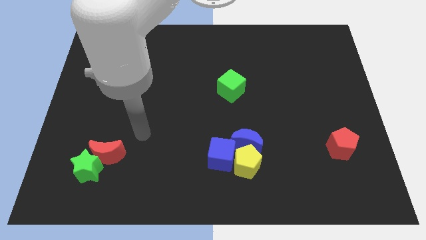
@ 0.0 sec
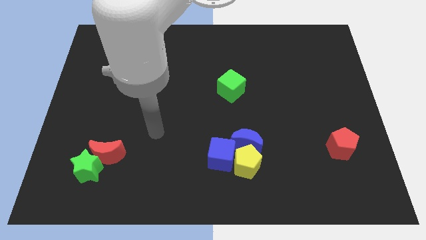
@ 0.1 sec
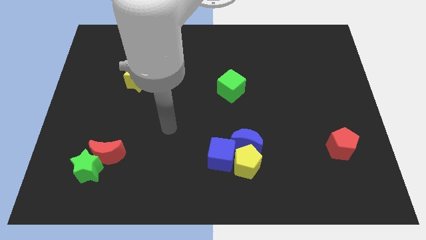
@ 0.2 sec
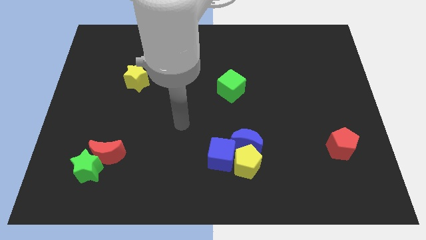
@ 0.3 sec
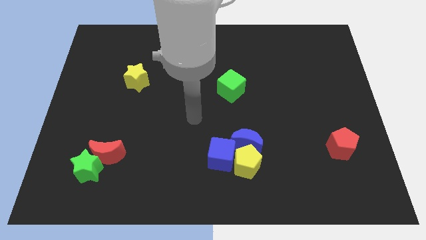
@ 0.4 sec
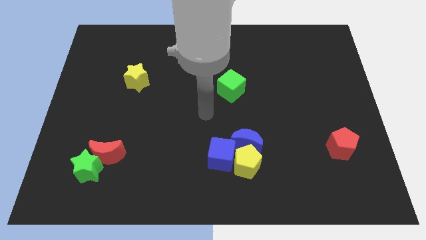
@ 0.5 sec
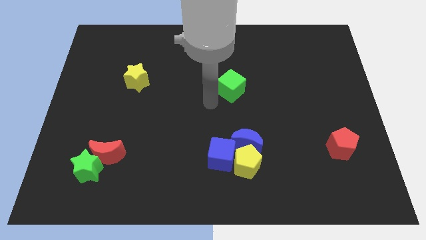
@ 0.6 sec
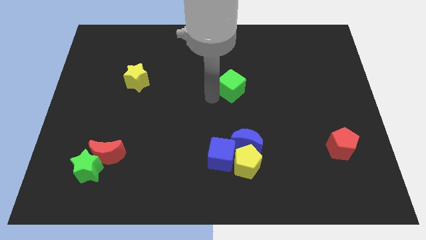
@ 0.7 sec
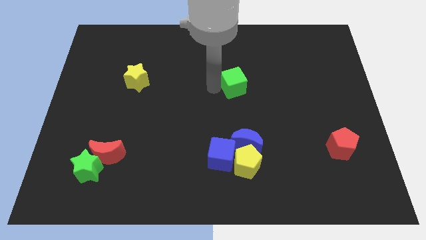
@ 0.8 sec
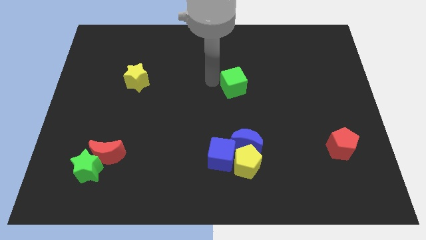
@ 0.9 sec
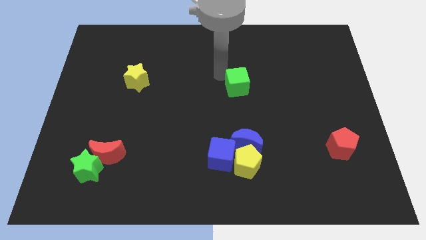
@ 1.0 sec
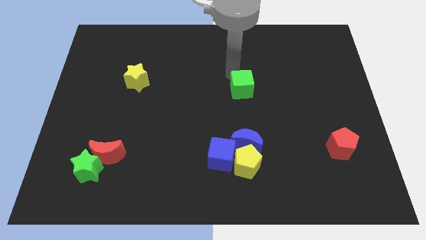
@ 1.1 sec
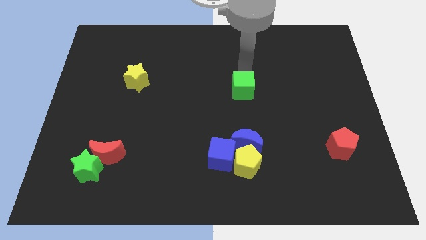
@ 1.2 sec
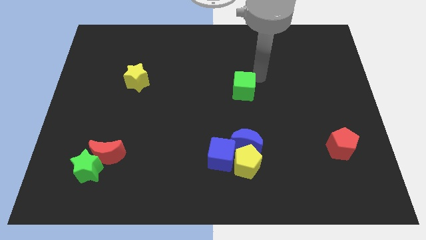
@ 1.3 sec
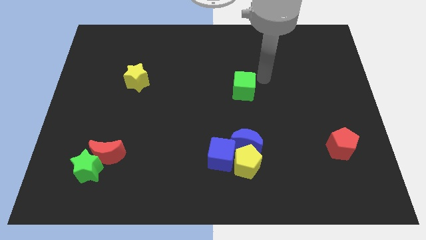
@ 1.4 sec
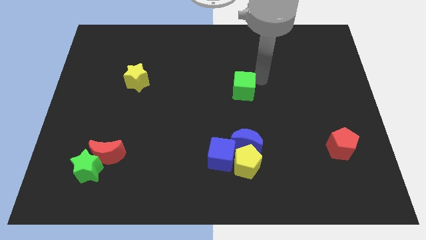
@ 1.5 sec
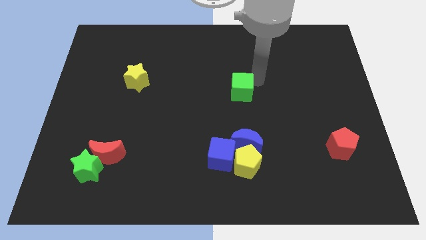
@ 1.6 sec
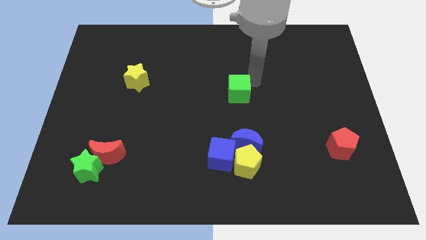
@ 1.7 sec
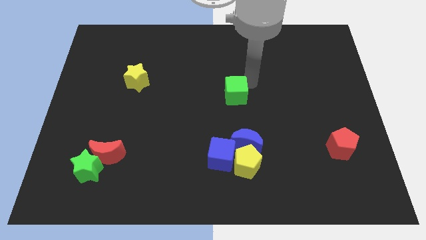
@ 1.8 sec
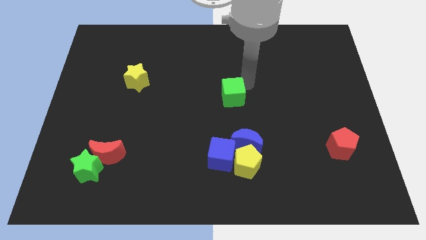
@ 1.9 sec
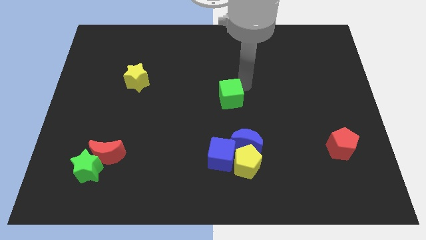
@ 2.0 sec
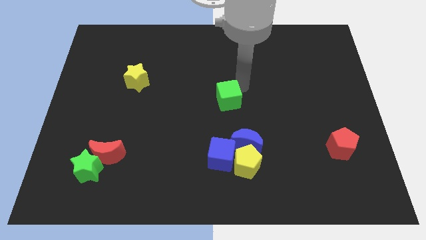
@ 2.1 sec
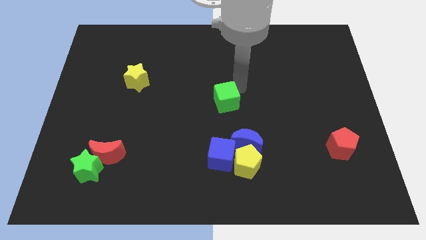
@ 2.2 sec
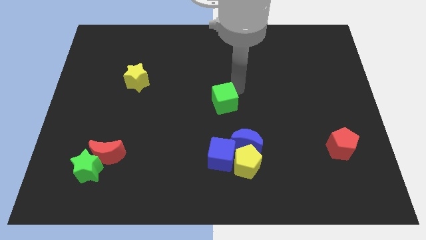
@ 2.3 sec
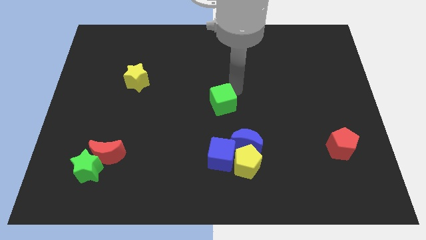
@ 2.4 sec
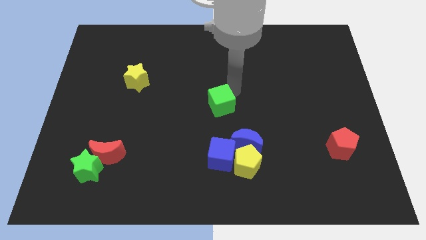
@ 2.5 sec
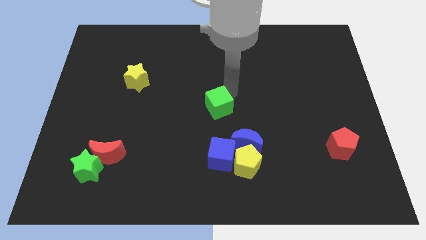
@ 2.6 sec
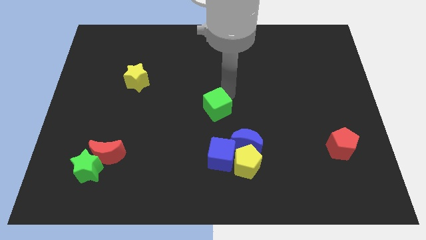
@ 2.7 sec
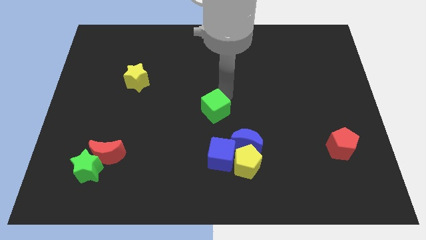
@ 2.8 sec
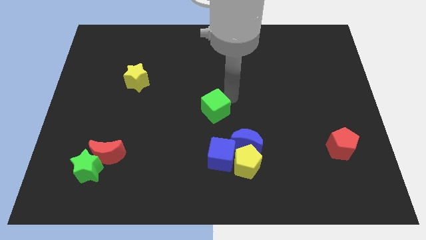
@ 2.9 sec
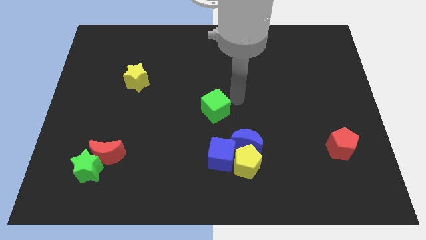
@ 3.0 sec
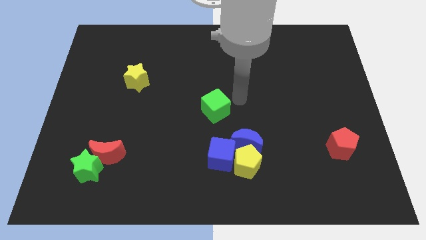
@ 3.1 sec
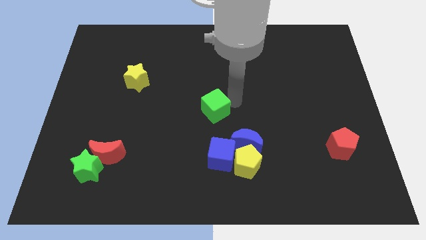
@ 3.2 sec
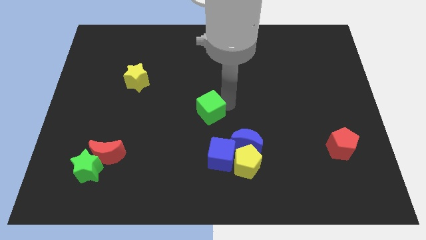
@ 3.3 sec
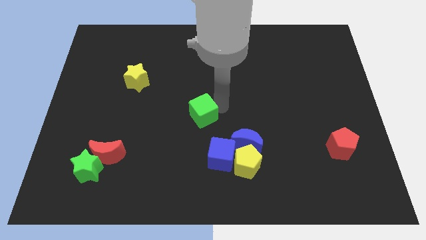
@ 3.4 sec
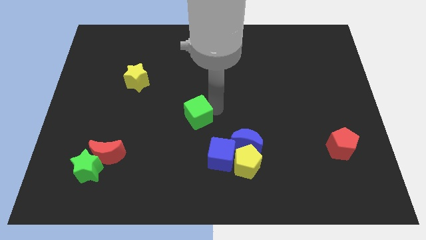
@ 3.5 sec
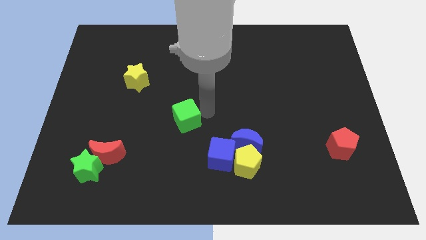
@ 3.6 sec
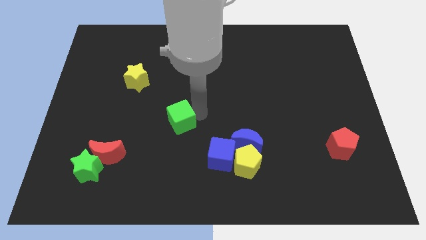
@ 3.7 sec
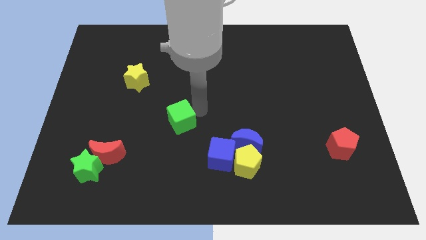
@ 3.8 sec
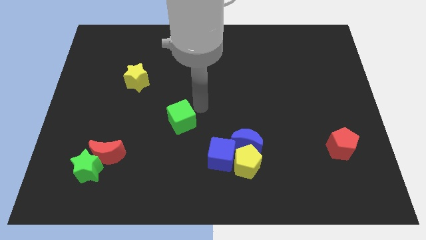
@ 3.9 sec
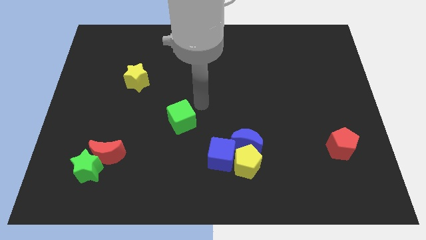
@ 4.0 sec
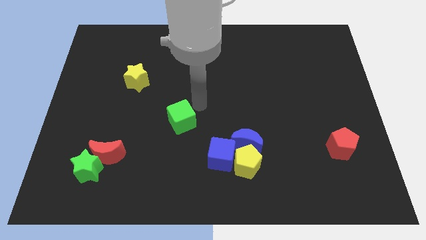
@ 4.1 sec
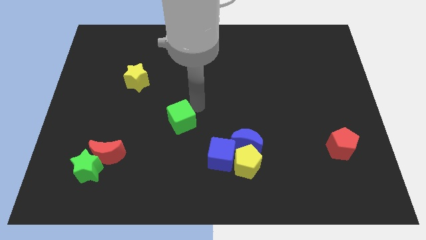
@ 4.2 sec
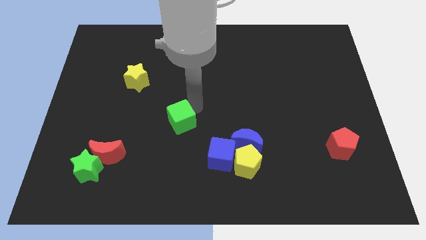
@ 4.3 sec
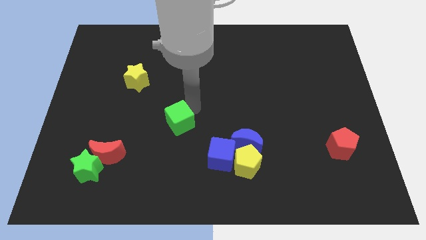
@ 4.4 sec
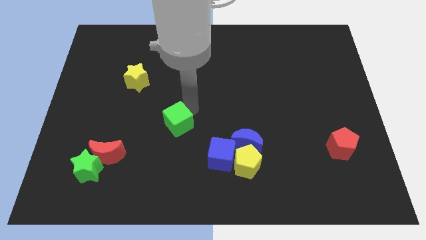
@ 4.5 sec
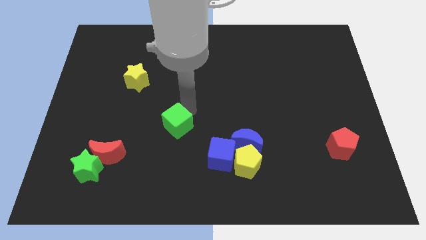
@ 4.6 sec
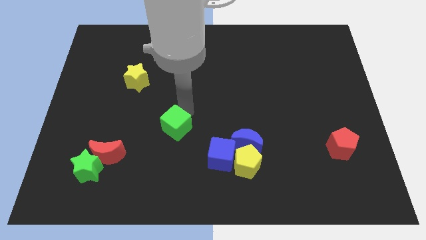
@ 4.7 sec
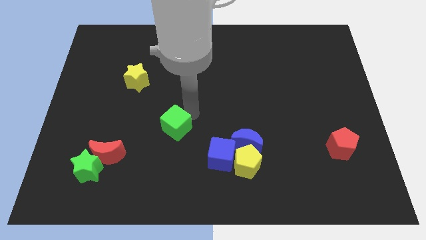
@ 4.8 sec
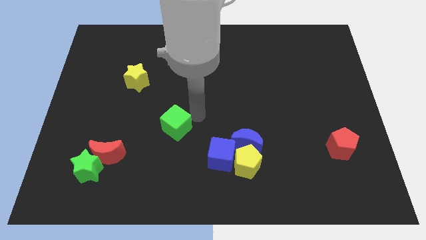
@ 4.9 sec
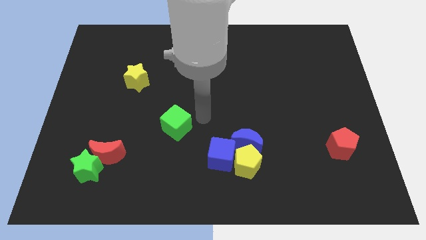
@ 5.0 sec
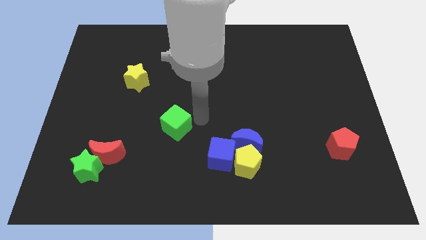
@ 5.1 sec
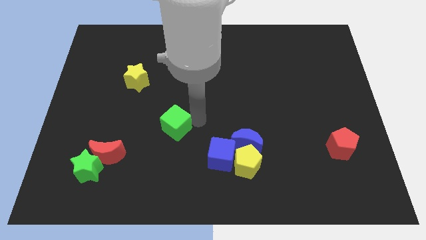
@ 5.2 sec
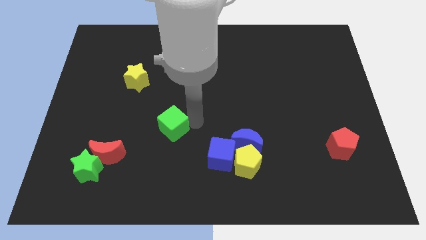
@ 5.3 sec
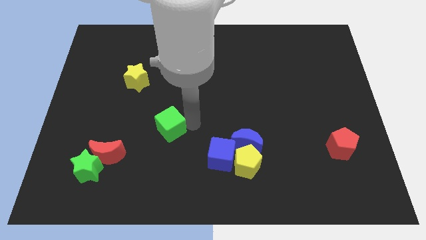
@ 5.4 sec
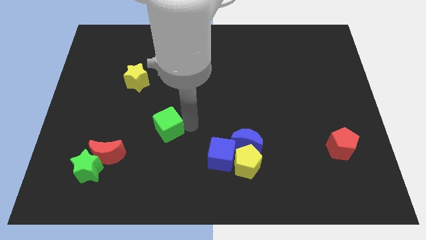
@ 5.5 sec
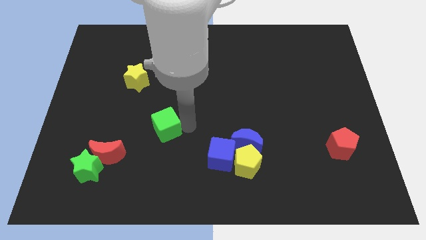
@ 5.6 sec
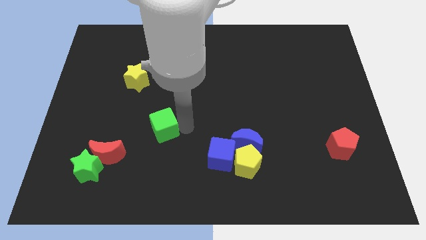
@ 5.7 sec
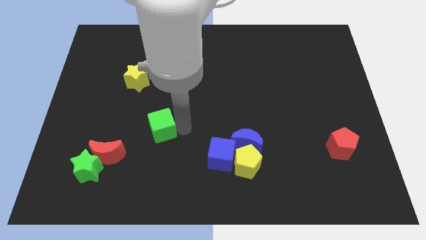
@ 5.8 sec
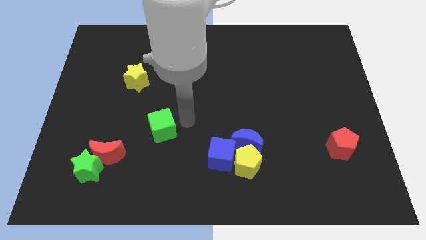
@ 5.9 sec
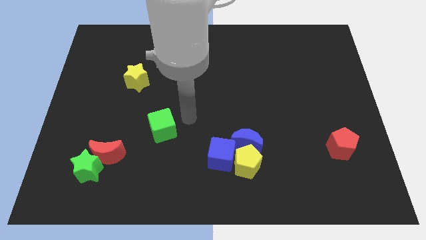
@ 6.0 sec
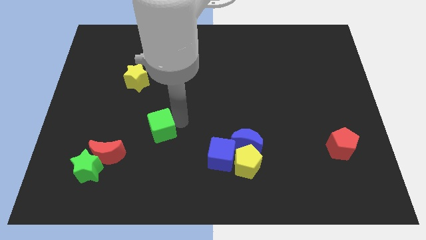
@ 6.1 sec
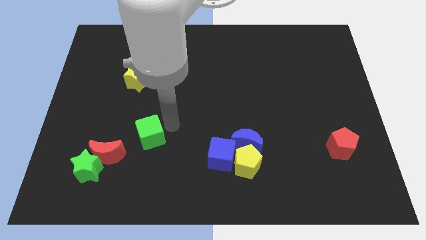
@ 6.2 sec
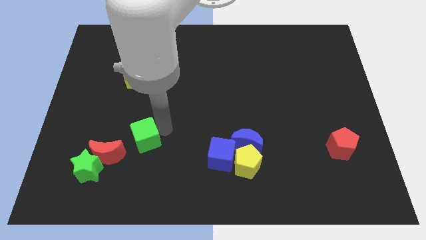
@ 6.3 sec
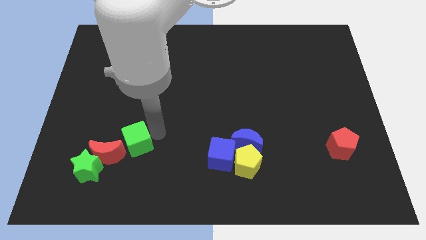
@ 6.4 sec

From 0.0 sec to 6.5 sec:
slide the green cube to the top right side of the green star

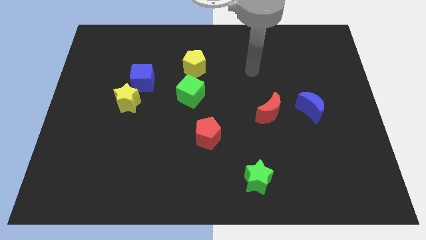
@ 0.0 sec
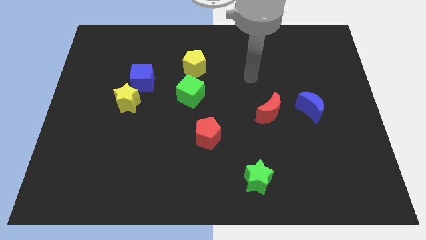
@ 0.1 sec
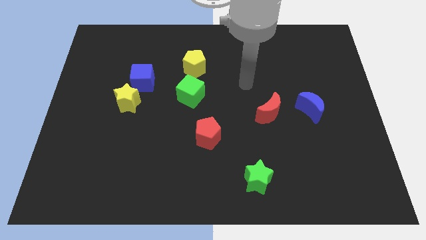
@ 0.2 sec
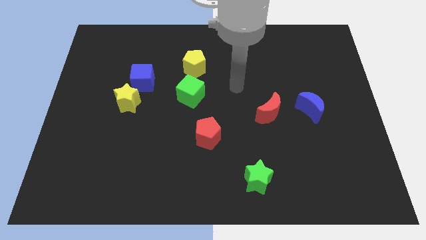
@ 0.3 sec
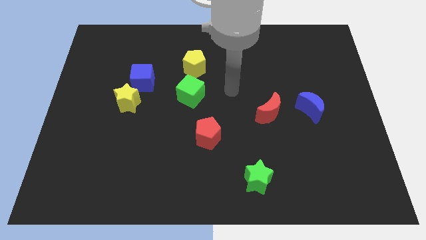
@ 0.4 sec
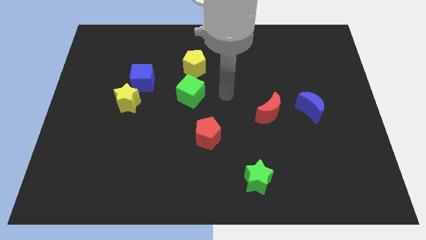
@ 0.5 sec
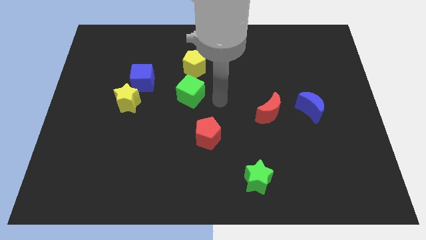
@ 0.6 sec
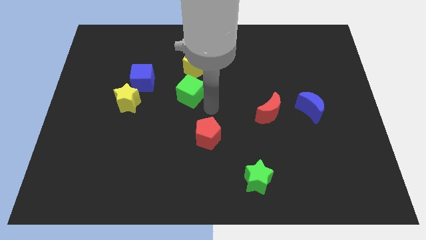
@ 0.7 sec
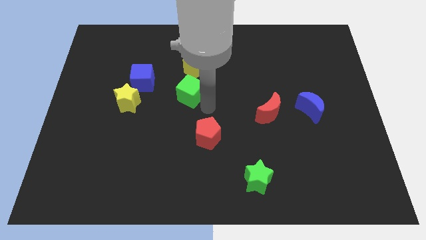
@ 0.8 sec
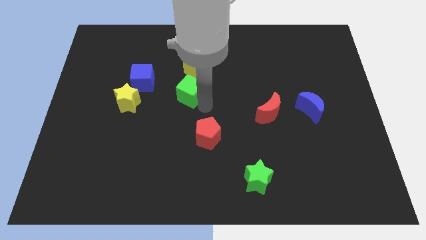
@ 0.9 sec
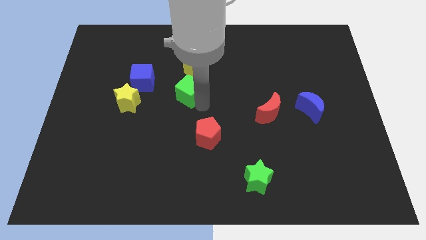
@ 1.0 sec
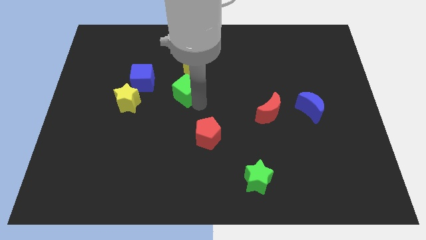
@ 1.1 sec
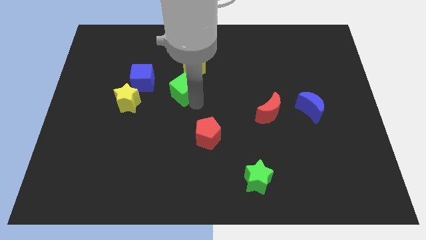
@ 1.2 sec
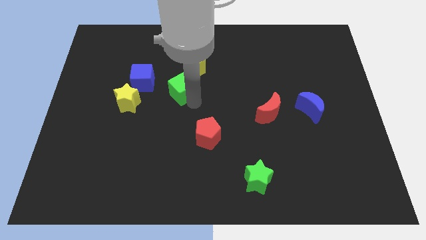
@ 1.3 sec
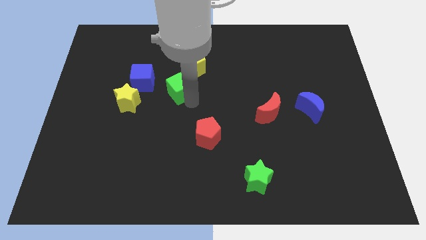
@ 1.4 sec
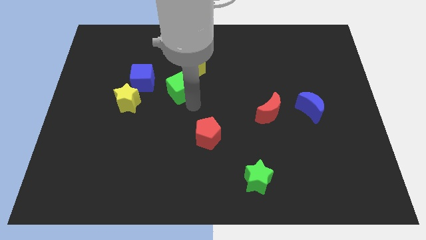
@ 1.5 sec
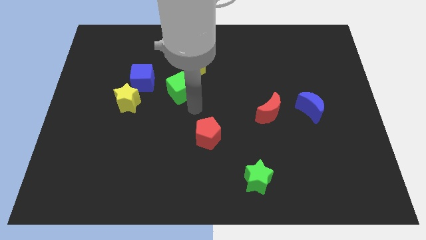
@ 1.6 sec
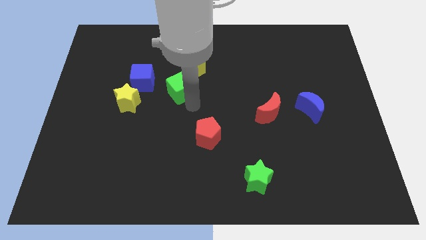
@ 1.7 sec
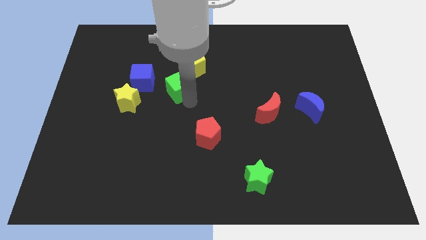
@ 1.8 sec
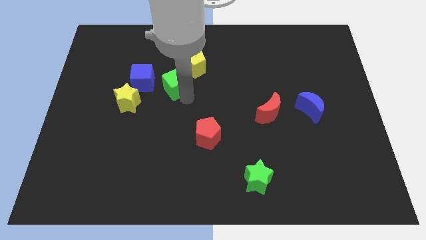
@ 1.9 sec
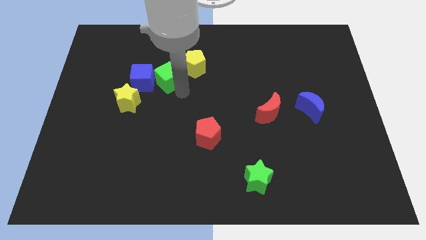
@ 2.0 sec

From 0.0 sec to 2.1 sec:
push the green cube just left of the yellow pentagon
